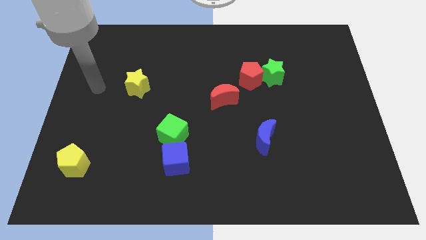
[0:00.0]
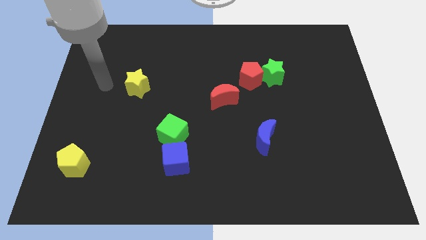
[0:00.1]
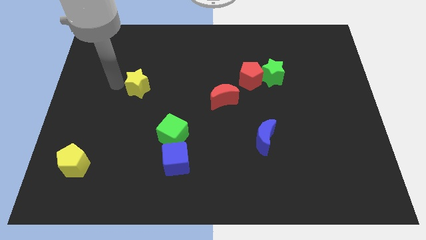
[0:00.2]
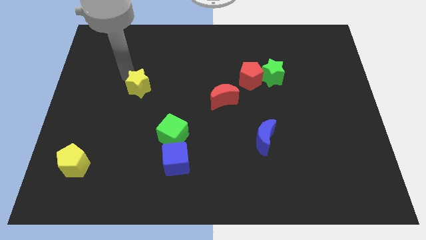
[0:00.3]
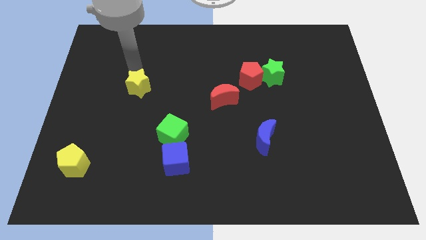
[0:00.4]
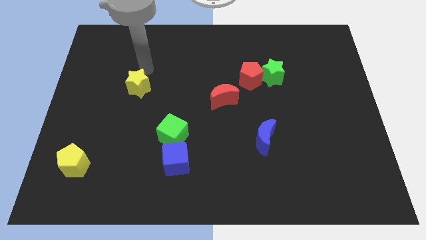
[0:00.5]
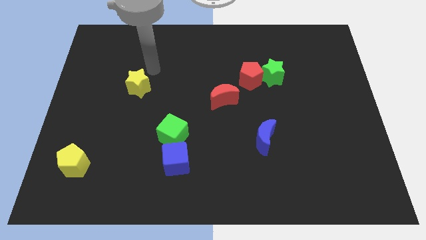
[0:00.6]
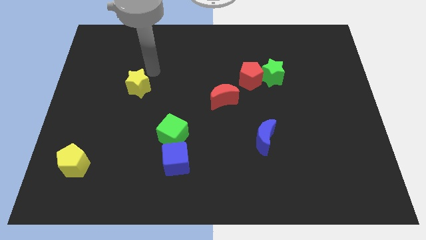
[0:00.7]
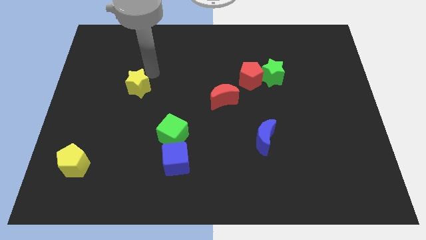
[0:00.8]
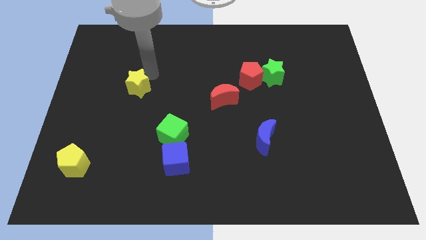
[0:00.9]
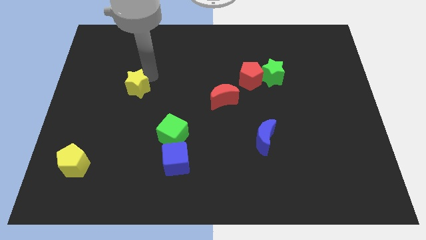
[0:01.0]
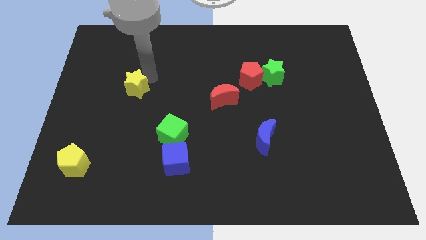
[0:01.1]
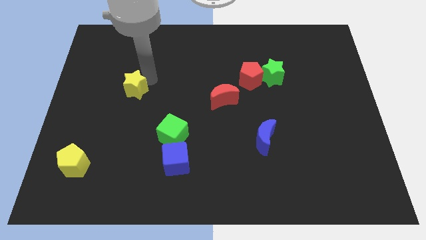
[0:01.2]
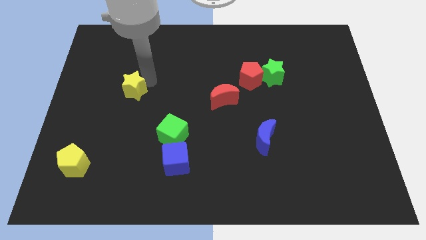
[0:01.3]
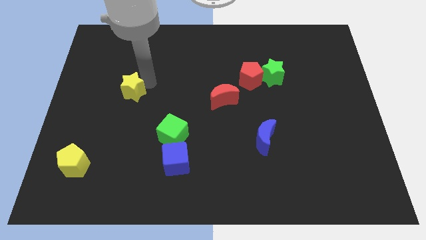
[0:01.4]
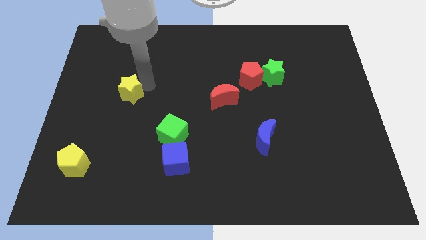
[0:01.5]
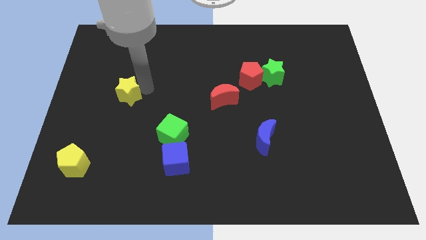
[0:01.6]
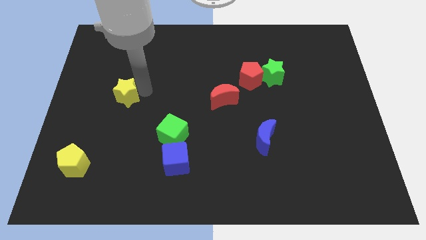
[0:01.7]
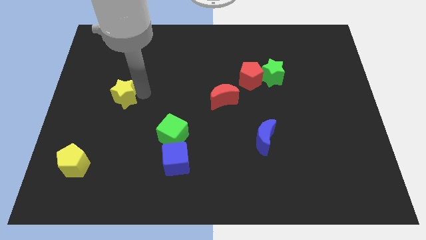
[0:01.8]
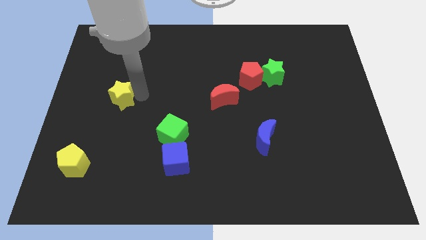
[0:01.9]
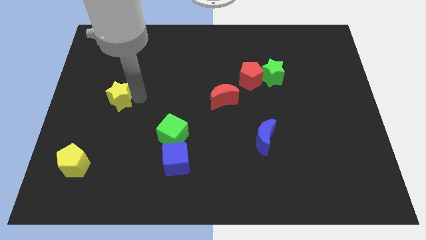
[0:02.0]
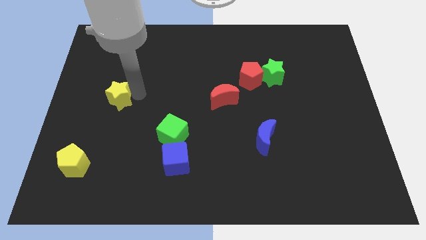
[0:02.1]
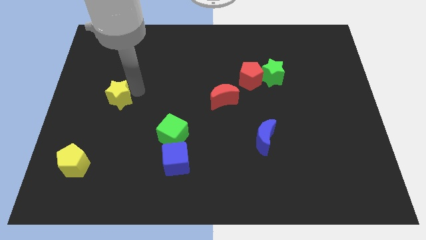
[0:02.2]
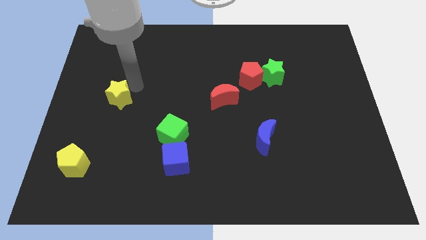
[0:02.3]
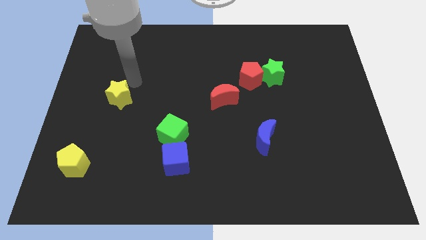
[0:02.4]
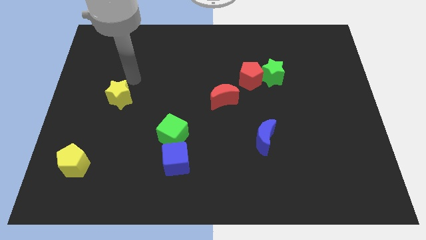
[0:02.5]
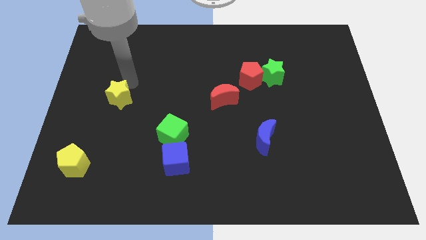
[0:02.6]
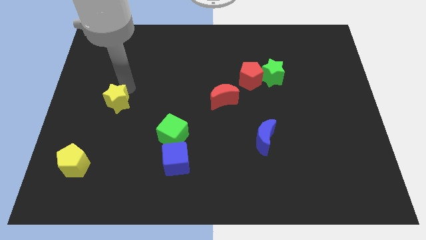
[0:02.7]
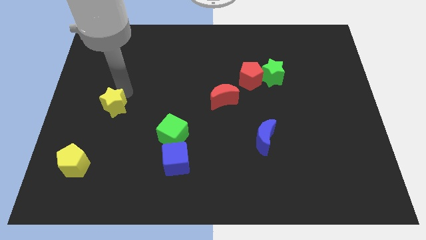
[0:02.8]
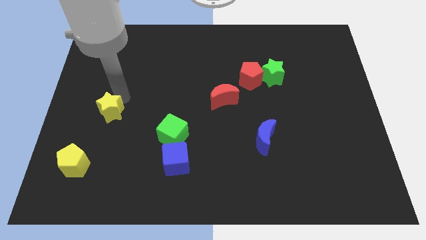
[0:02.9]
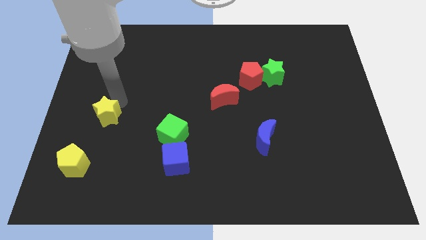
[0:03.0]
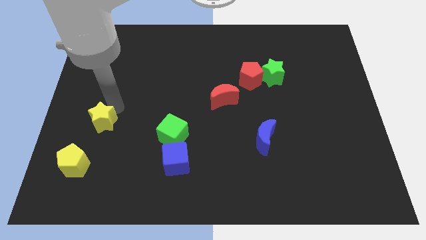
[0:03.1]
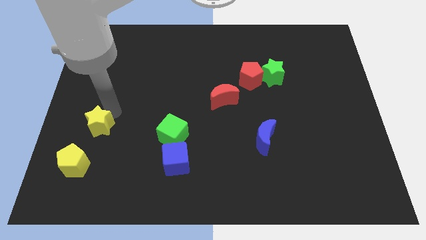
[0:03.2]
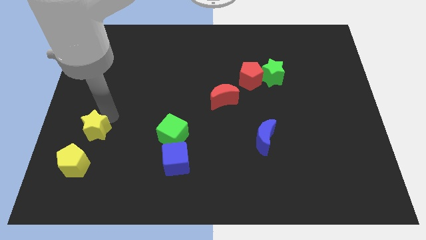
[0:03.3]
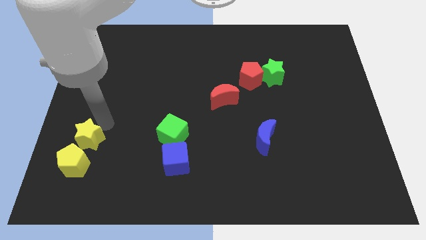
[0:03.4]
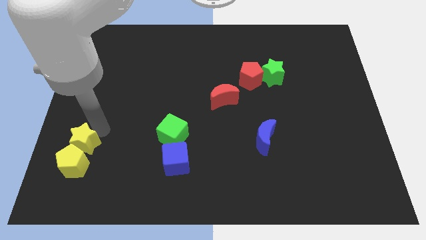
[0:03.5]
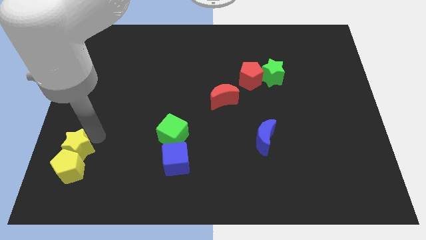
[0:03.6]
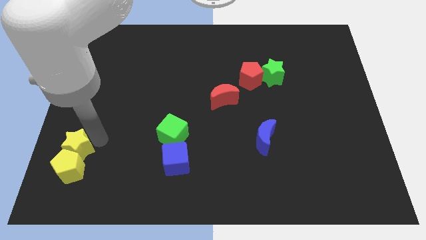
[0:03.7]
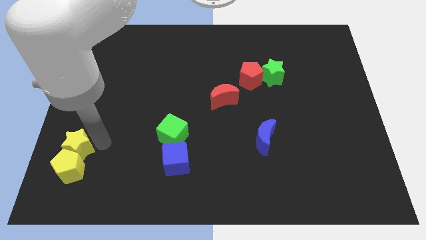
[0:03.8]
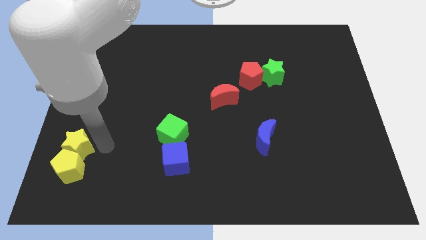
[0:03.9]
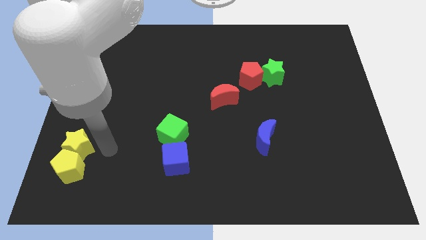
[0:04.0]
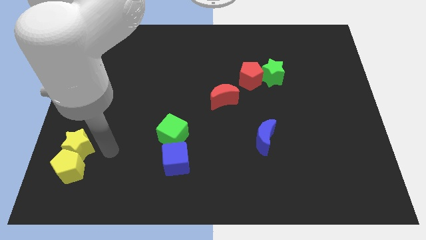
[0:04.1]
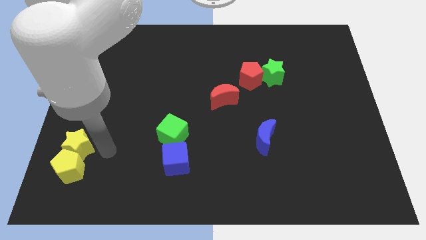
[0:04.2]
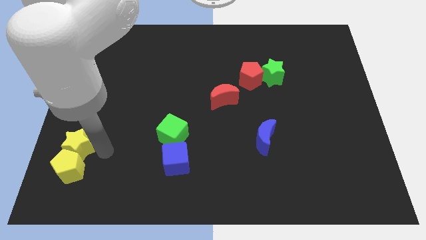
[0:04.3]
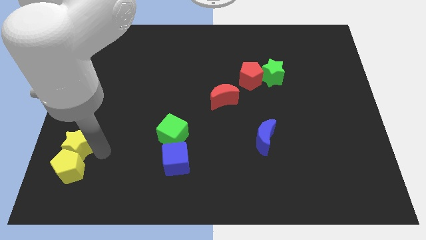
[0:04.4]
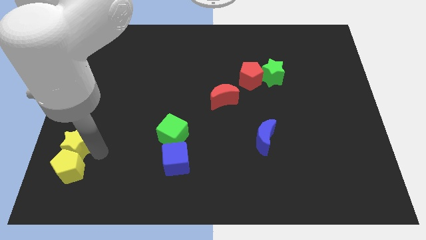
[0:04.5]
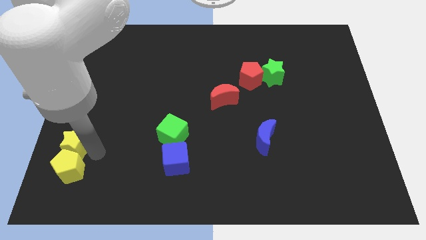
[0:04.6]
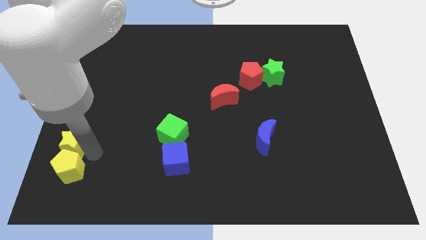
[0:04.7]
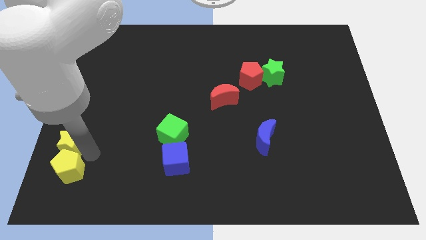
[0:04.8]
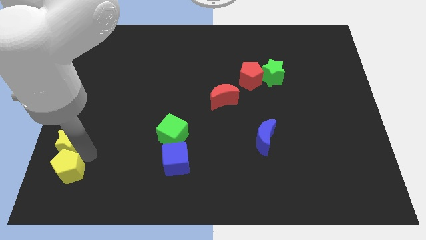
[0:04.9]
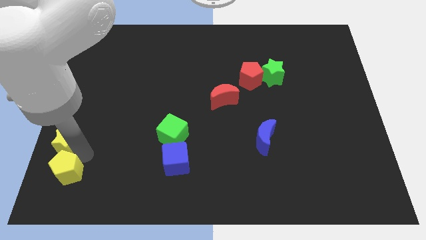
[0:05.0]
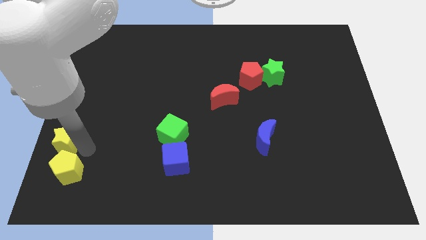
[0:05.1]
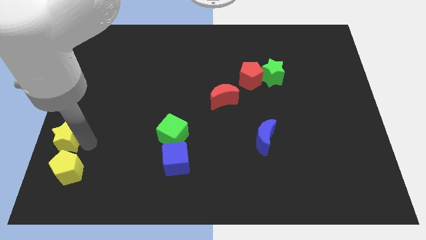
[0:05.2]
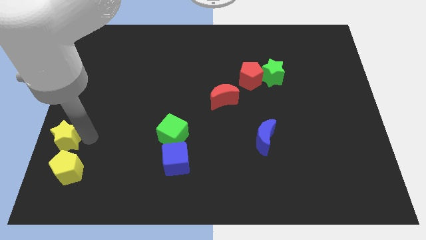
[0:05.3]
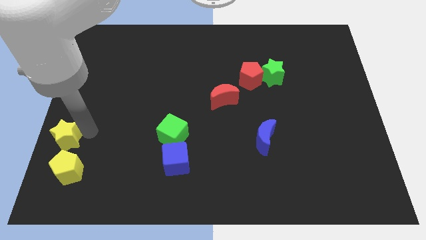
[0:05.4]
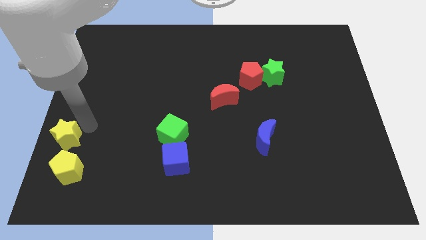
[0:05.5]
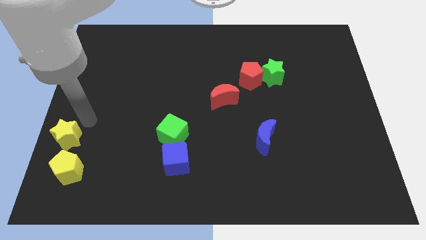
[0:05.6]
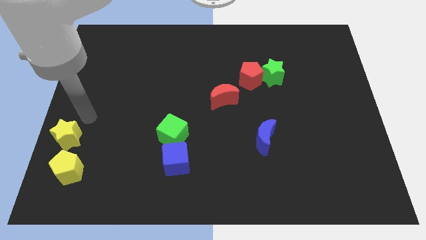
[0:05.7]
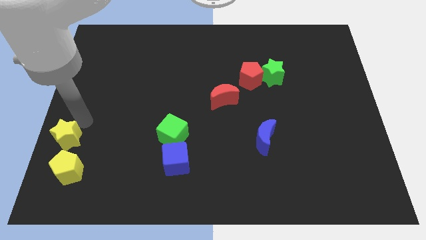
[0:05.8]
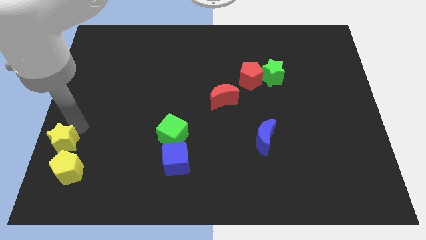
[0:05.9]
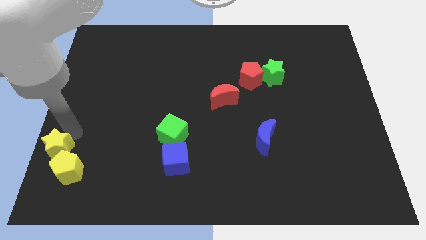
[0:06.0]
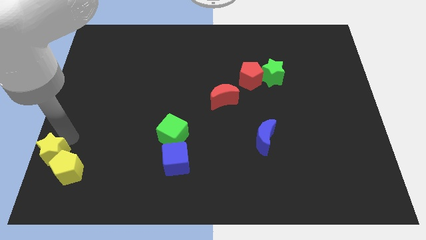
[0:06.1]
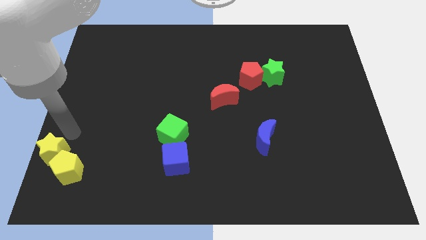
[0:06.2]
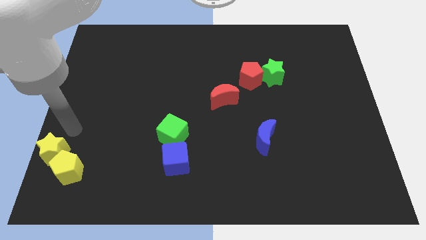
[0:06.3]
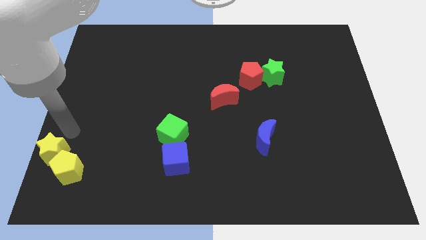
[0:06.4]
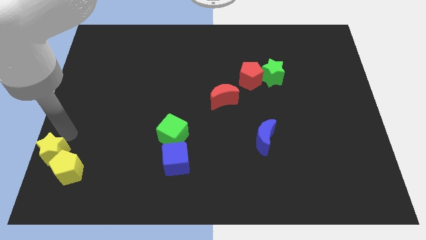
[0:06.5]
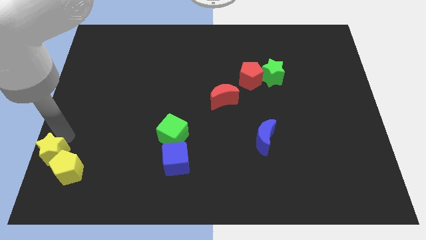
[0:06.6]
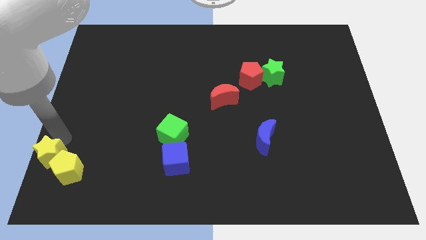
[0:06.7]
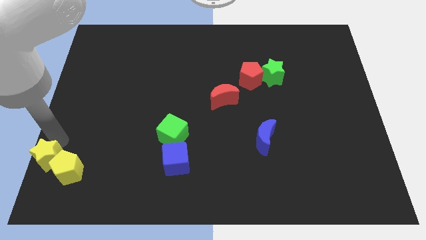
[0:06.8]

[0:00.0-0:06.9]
slide the yellow star to the bottom left corner

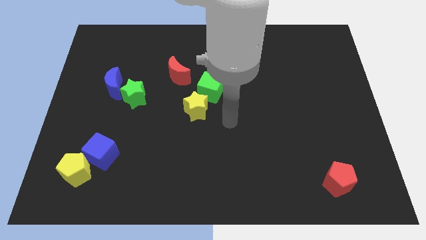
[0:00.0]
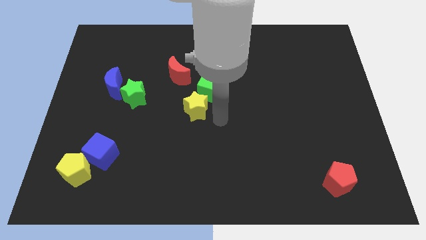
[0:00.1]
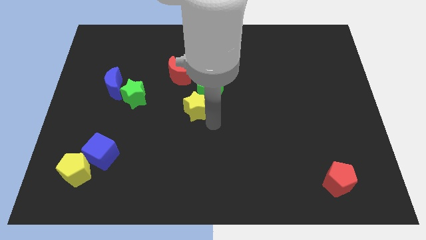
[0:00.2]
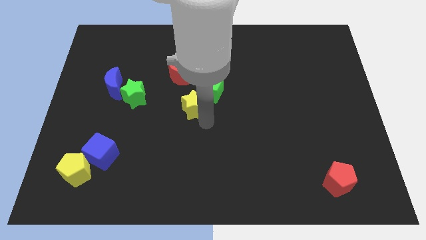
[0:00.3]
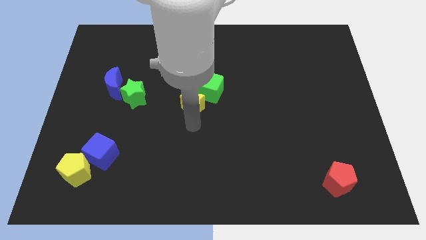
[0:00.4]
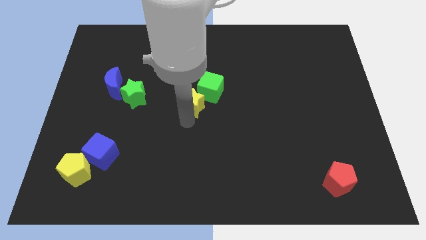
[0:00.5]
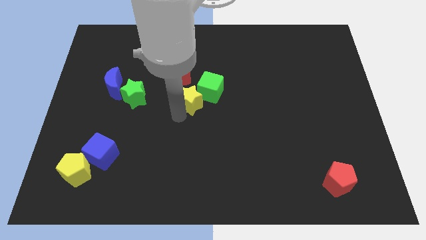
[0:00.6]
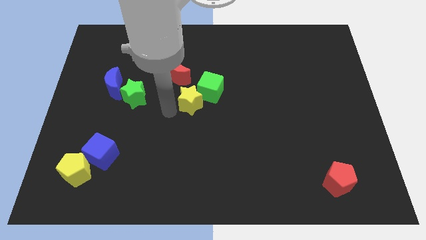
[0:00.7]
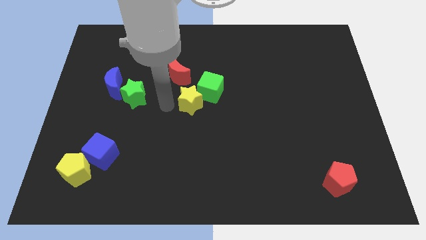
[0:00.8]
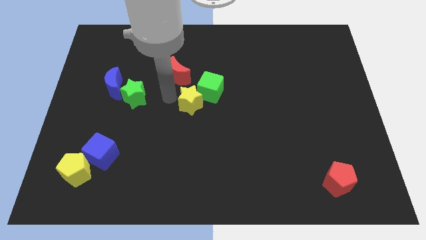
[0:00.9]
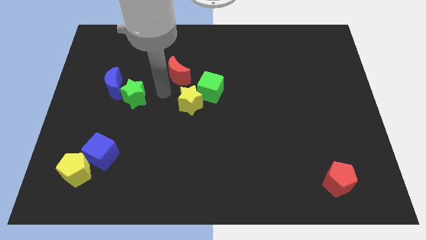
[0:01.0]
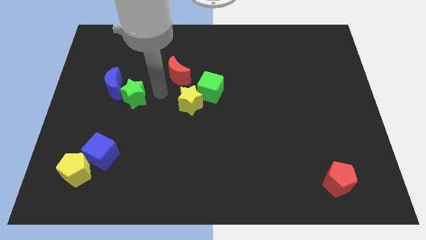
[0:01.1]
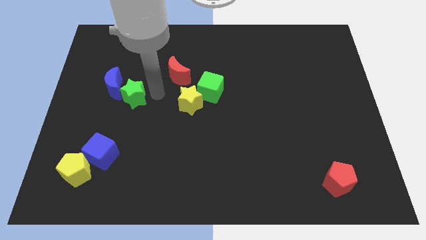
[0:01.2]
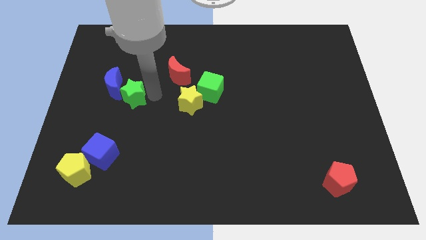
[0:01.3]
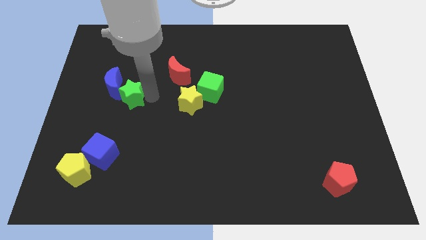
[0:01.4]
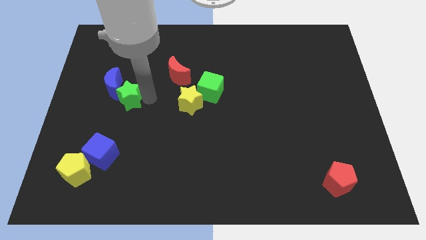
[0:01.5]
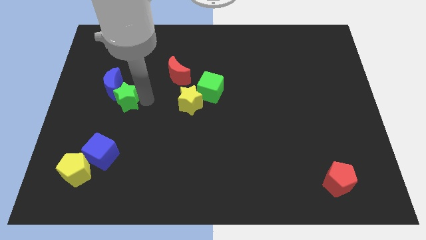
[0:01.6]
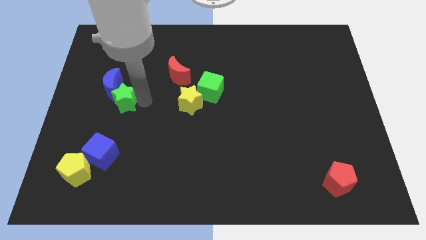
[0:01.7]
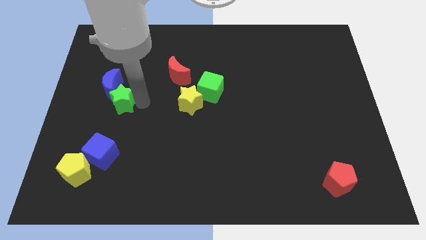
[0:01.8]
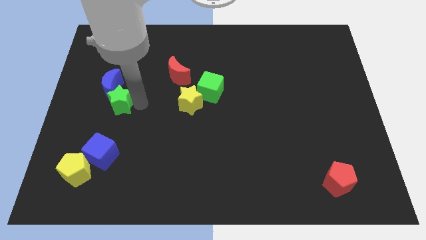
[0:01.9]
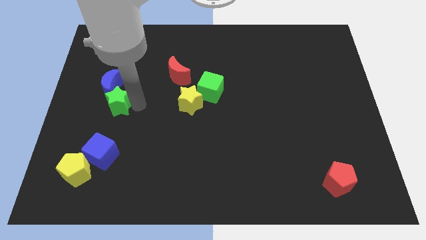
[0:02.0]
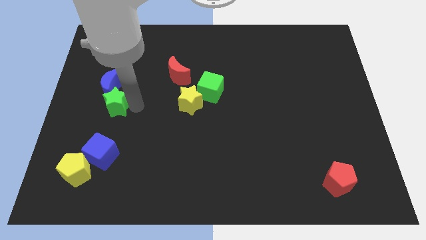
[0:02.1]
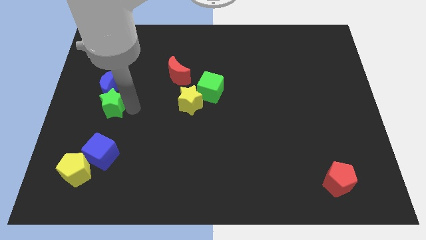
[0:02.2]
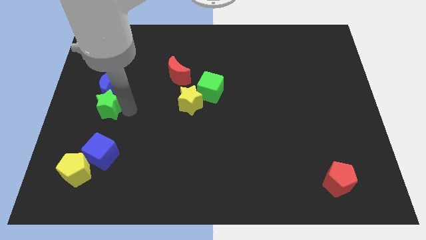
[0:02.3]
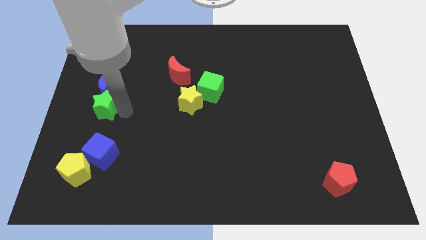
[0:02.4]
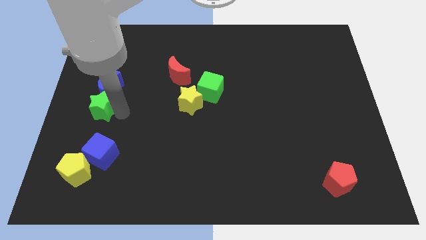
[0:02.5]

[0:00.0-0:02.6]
push the green star to the left side of the board
